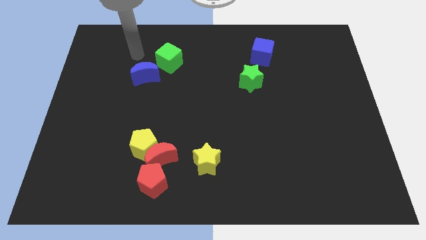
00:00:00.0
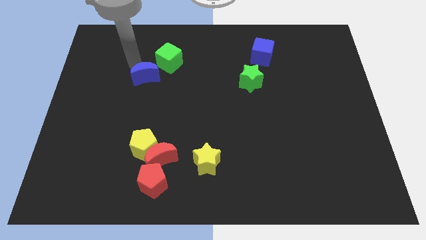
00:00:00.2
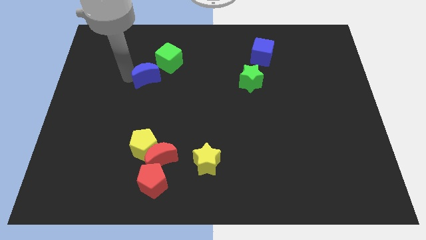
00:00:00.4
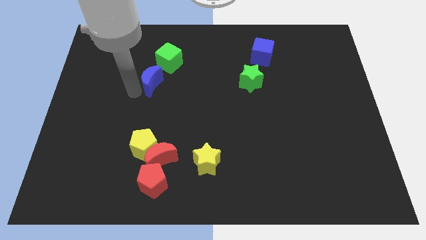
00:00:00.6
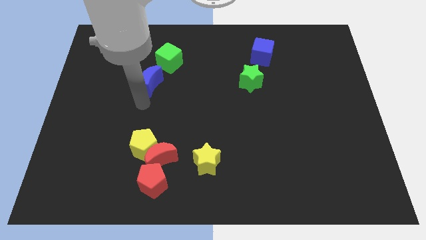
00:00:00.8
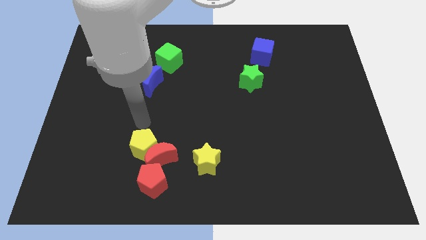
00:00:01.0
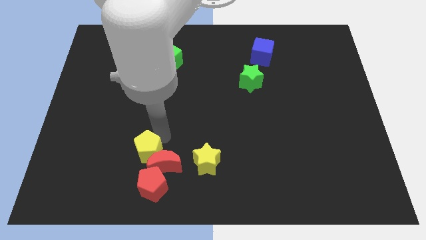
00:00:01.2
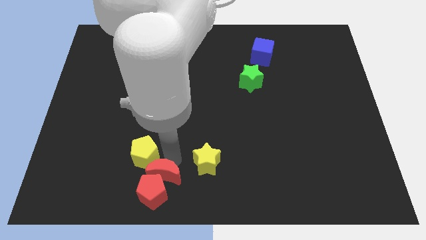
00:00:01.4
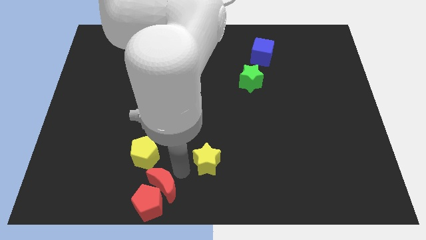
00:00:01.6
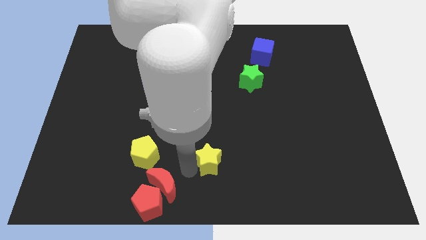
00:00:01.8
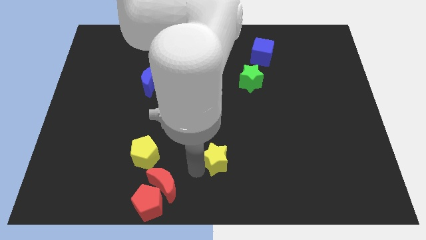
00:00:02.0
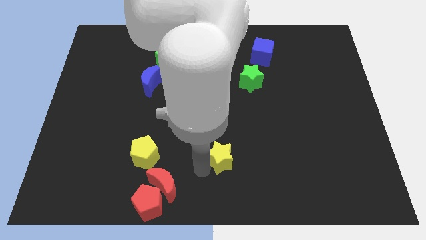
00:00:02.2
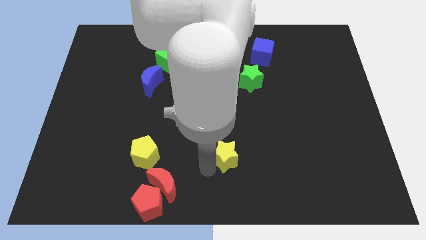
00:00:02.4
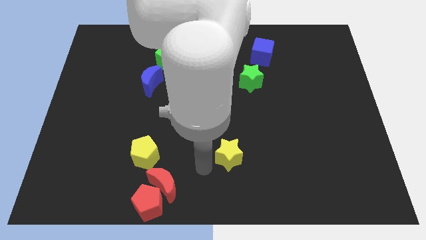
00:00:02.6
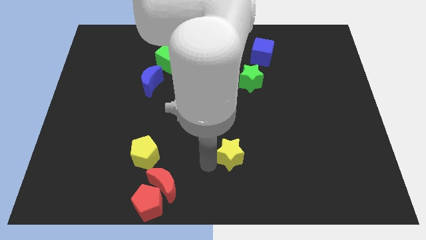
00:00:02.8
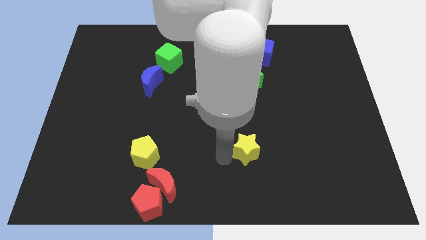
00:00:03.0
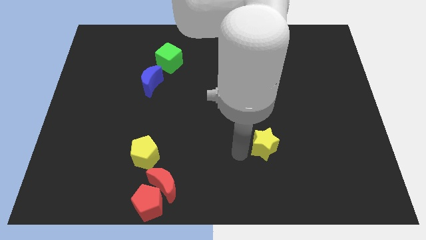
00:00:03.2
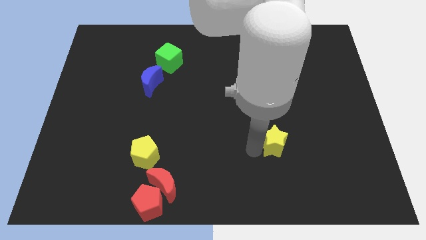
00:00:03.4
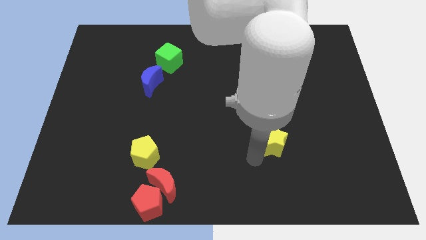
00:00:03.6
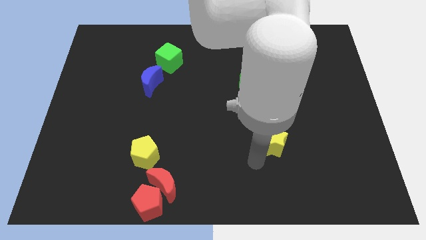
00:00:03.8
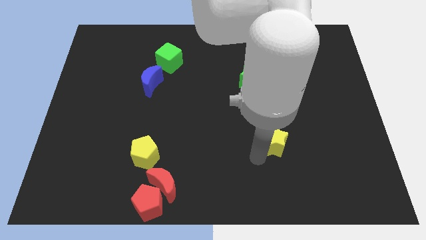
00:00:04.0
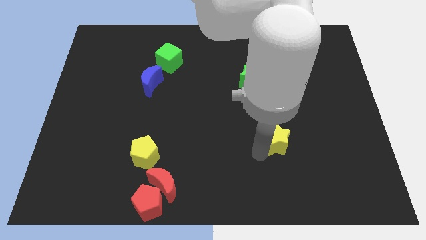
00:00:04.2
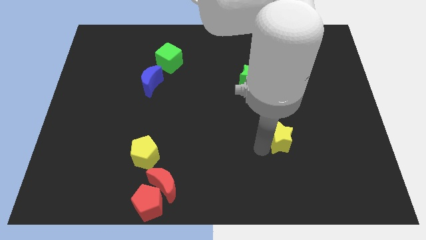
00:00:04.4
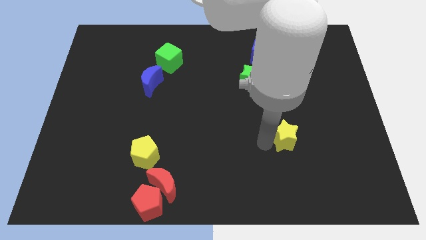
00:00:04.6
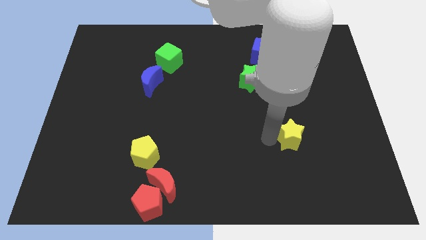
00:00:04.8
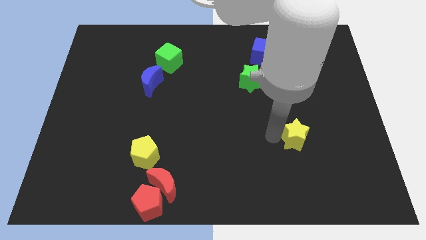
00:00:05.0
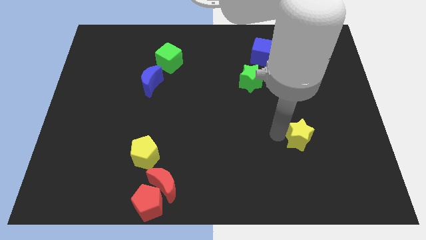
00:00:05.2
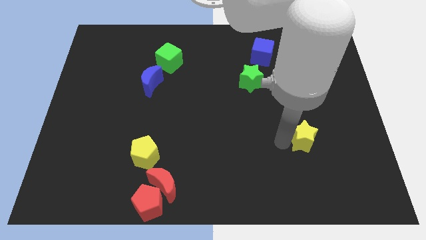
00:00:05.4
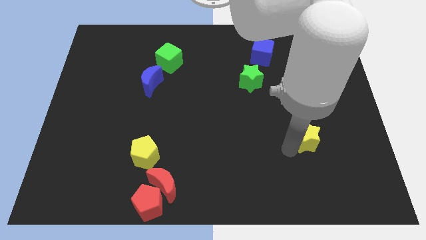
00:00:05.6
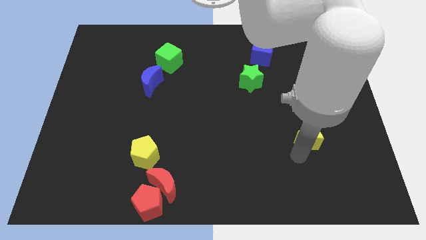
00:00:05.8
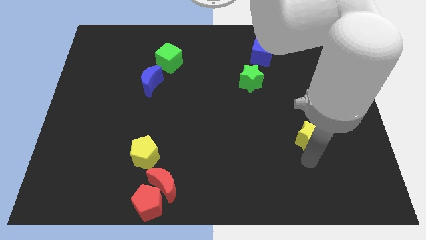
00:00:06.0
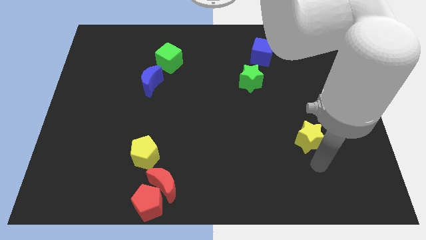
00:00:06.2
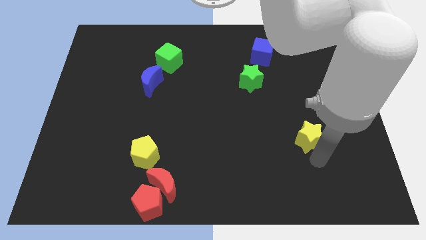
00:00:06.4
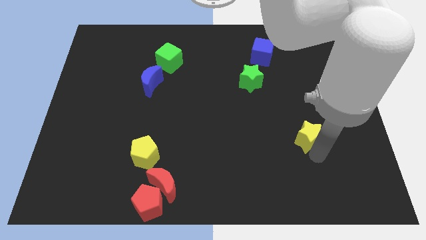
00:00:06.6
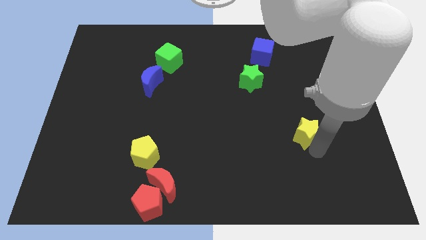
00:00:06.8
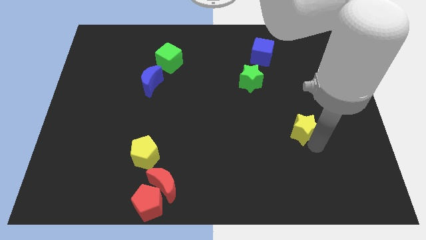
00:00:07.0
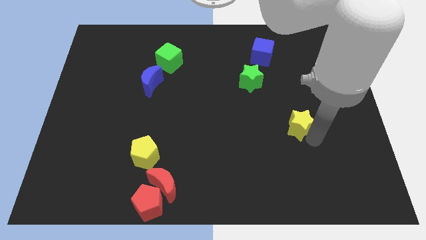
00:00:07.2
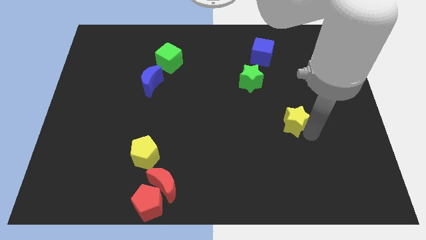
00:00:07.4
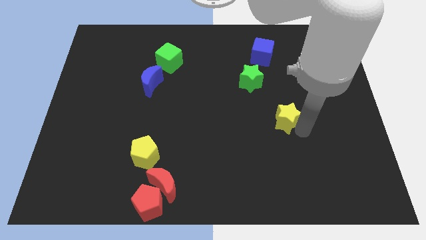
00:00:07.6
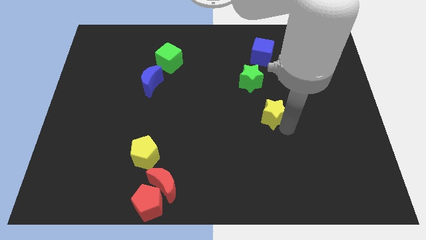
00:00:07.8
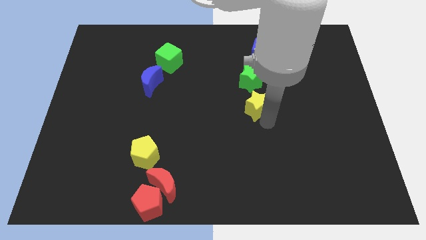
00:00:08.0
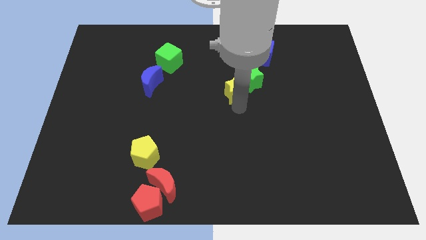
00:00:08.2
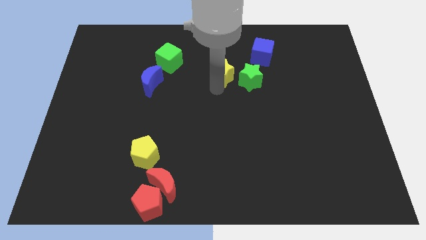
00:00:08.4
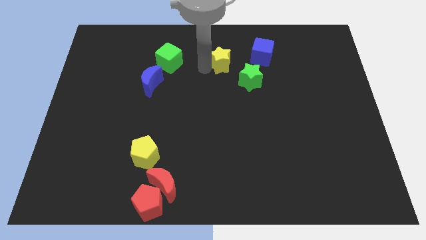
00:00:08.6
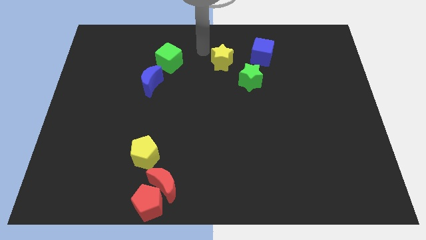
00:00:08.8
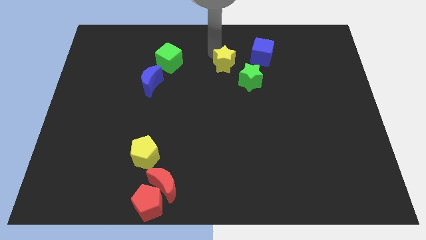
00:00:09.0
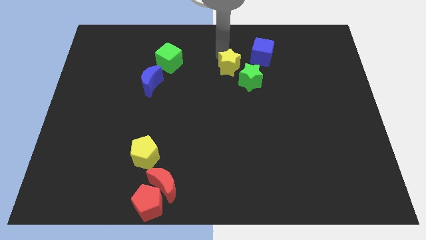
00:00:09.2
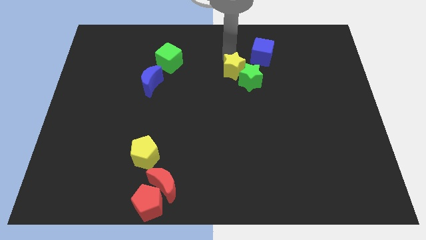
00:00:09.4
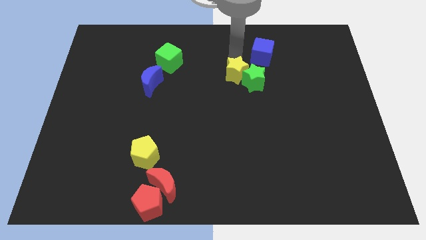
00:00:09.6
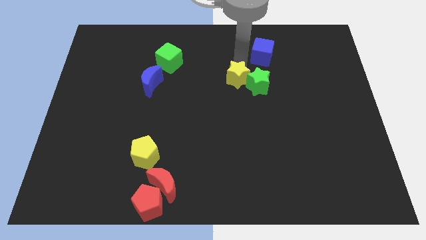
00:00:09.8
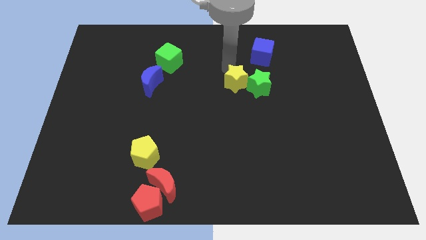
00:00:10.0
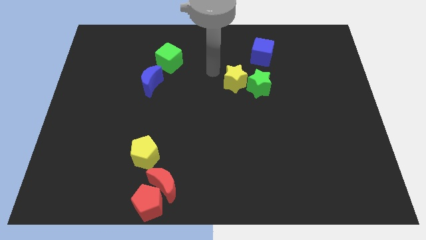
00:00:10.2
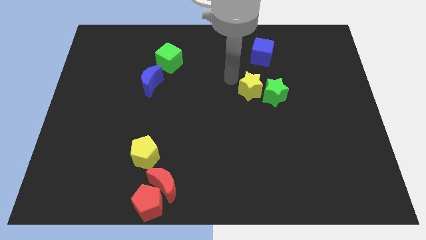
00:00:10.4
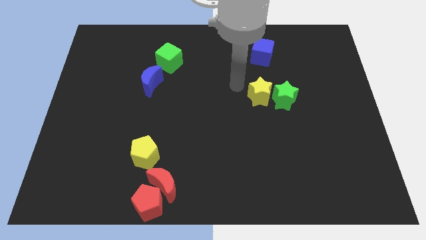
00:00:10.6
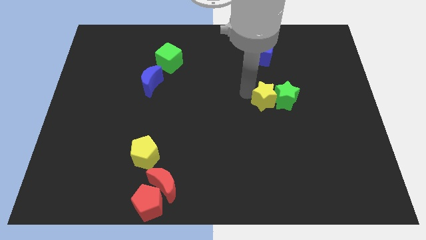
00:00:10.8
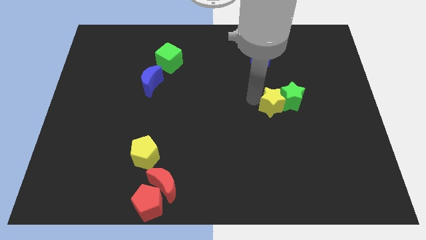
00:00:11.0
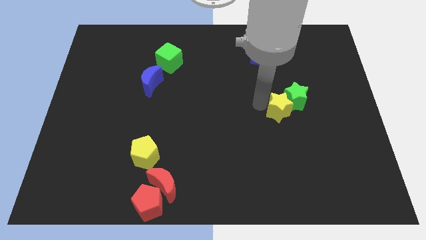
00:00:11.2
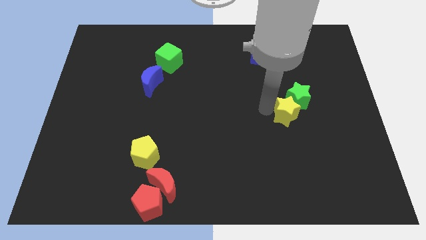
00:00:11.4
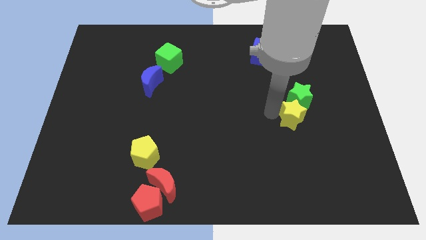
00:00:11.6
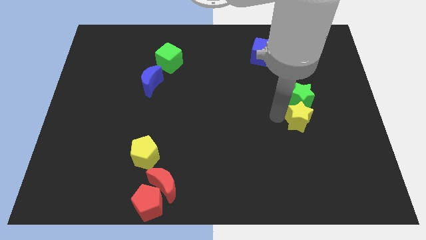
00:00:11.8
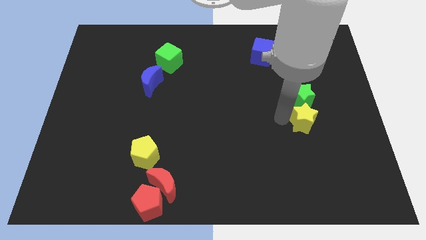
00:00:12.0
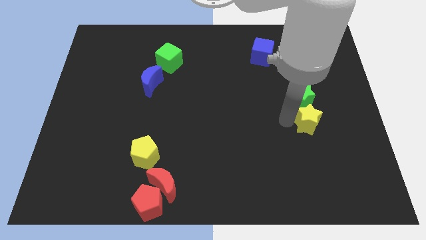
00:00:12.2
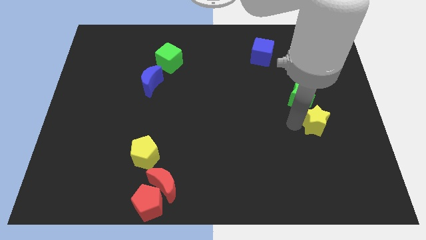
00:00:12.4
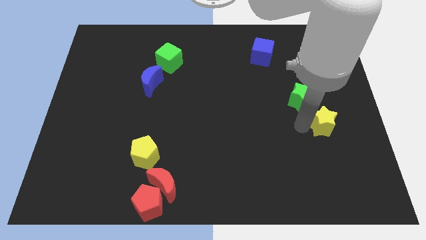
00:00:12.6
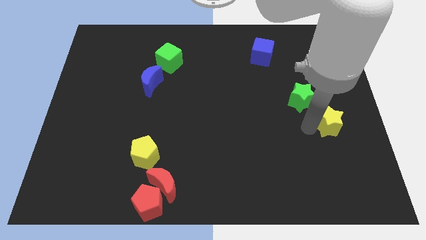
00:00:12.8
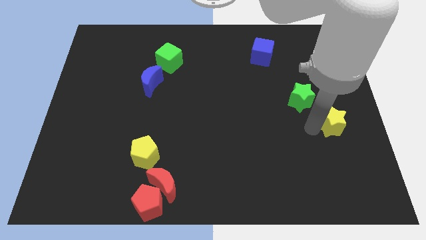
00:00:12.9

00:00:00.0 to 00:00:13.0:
move the yellow star to the right side
